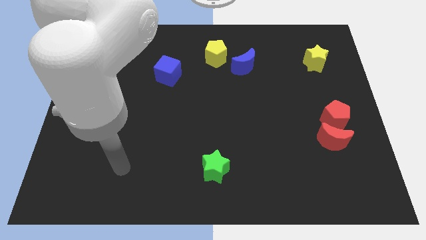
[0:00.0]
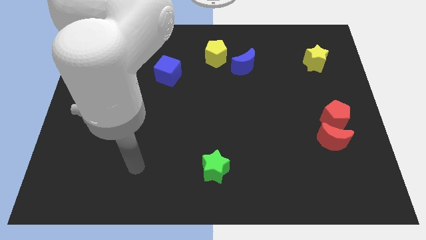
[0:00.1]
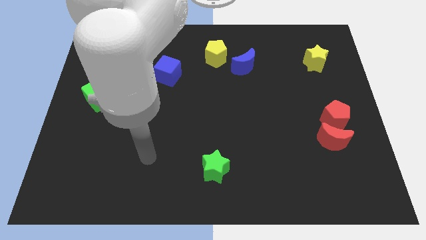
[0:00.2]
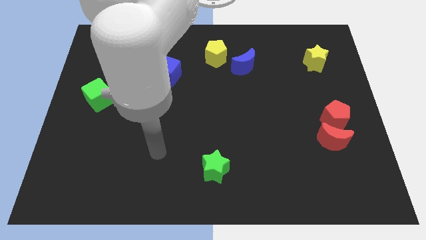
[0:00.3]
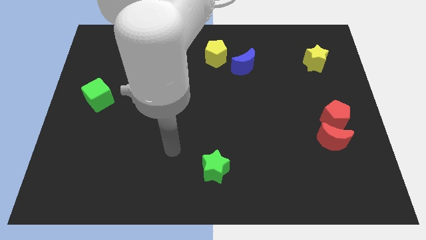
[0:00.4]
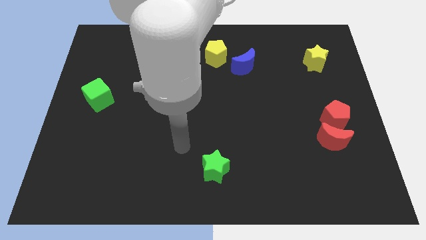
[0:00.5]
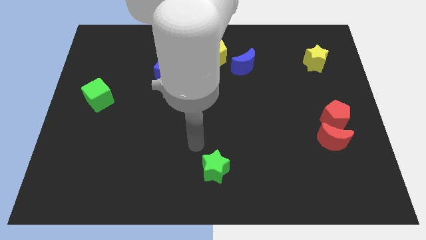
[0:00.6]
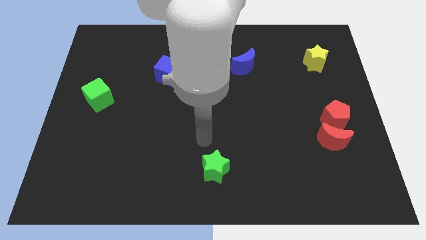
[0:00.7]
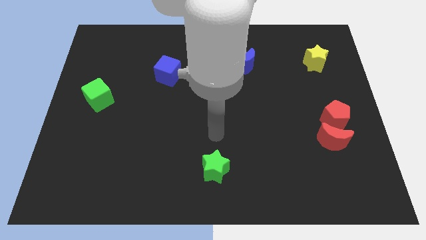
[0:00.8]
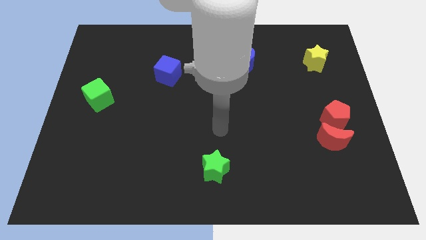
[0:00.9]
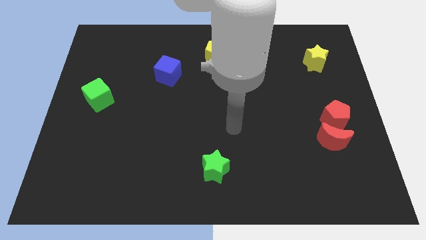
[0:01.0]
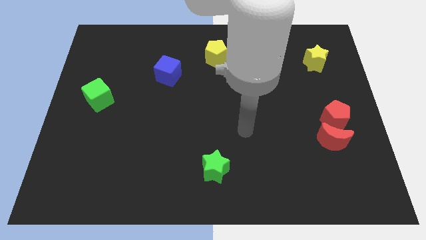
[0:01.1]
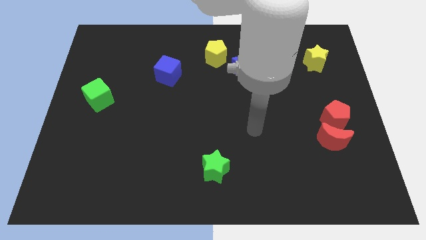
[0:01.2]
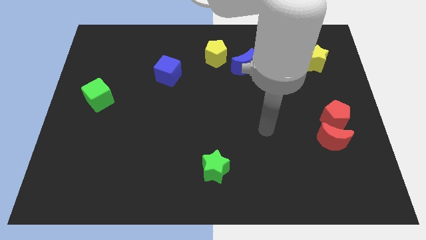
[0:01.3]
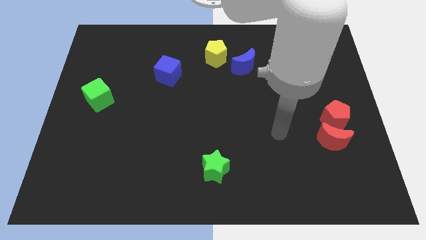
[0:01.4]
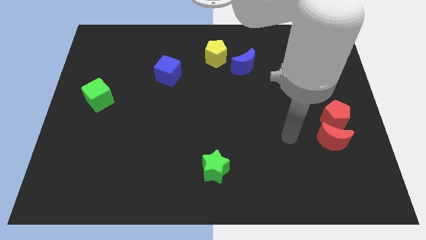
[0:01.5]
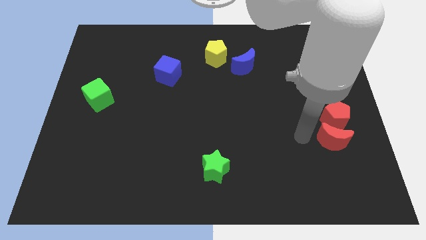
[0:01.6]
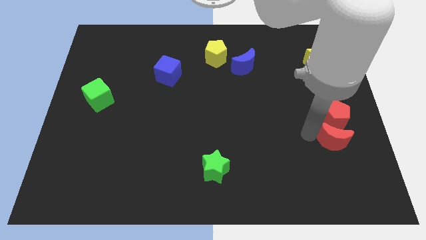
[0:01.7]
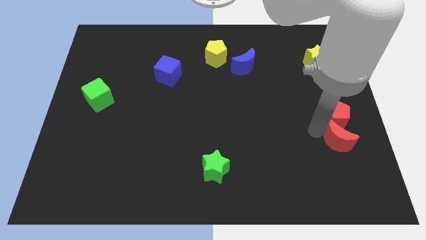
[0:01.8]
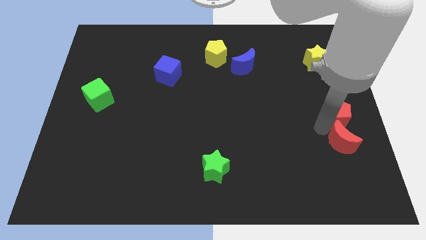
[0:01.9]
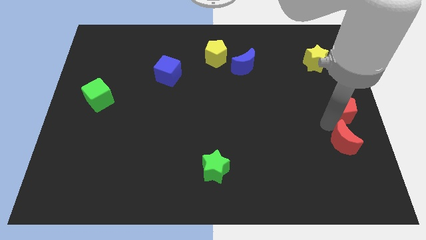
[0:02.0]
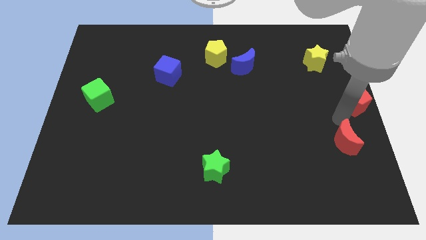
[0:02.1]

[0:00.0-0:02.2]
move the red moon away from the red pentagon

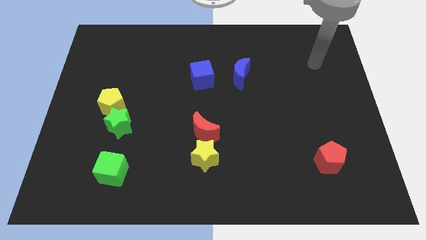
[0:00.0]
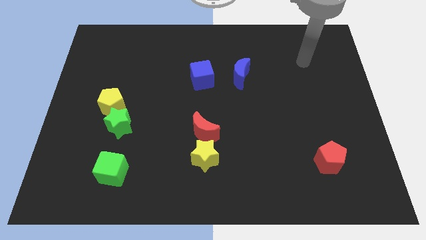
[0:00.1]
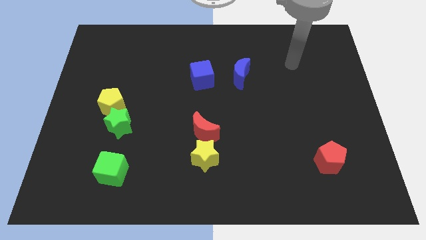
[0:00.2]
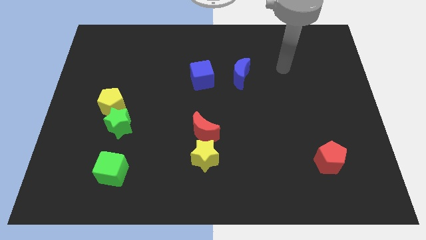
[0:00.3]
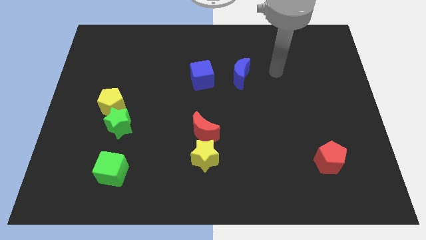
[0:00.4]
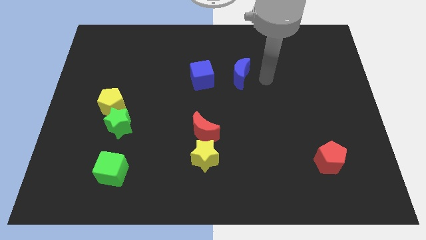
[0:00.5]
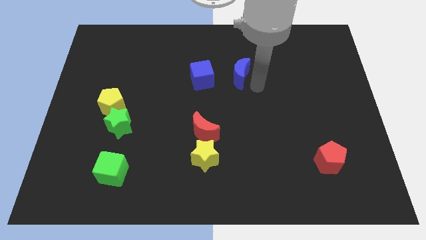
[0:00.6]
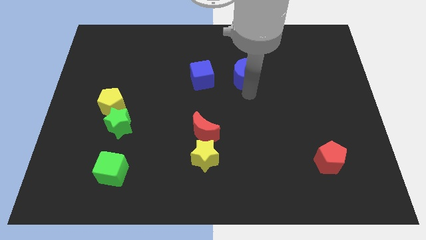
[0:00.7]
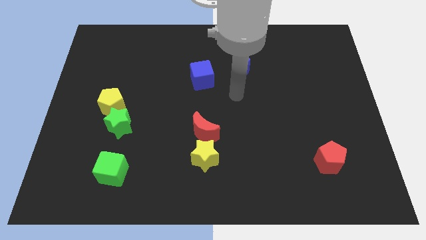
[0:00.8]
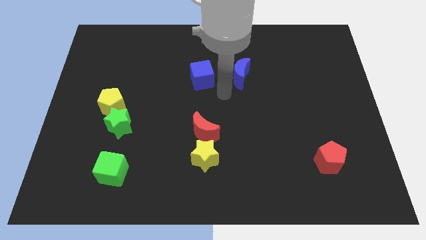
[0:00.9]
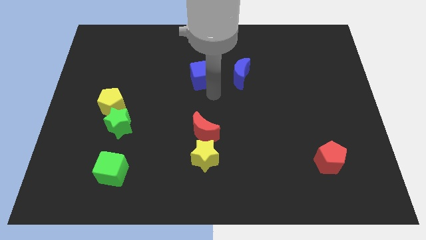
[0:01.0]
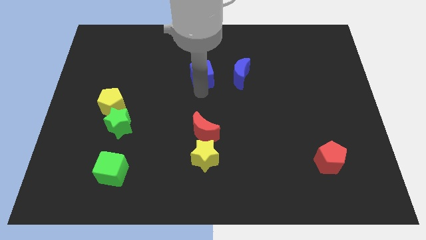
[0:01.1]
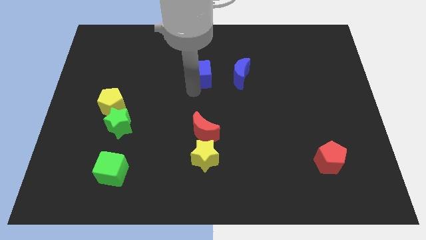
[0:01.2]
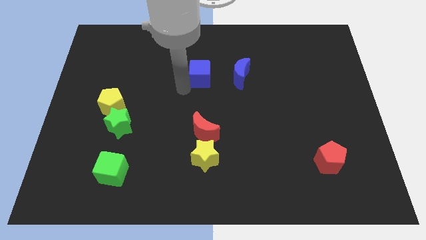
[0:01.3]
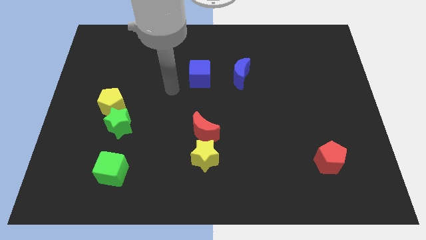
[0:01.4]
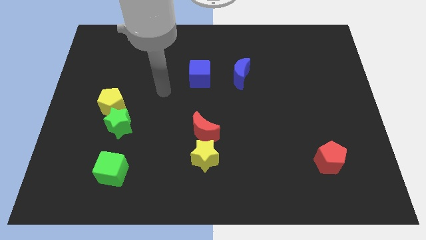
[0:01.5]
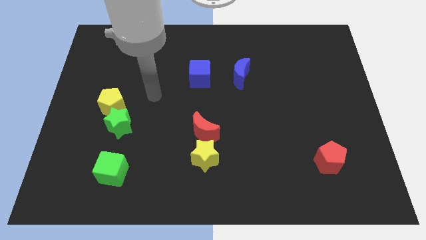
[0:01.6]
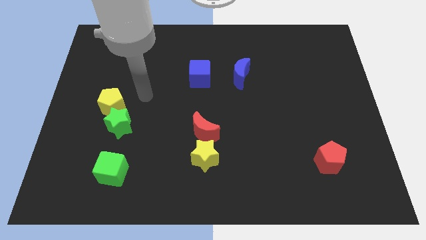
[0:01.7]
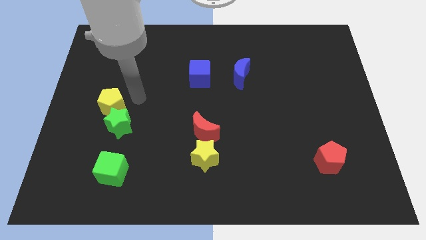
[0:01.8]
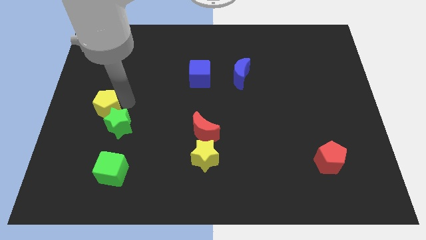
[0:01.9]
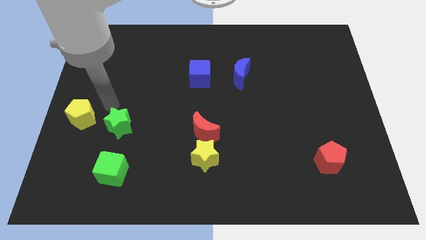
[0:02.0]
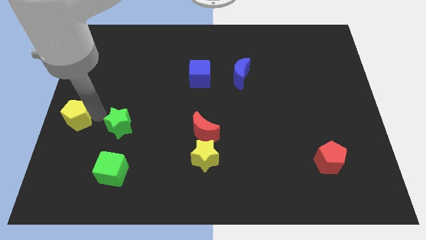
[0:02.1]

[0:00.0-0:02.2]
separate the green star from the yellow pentagon

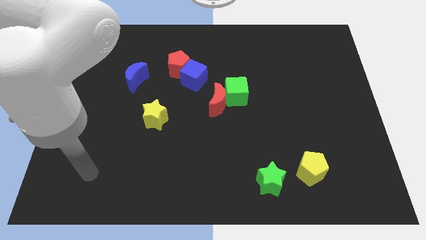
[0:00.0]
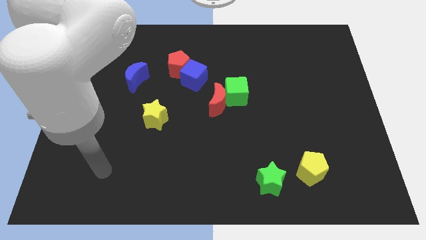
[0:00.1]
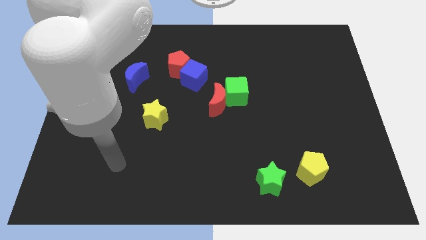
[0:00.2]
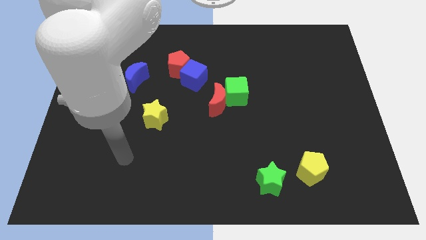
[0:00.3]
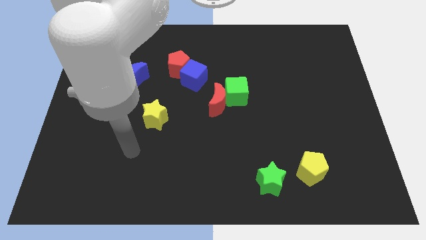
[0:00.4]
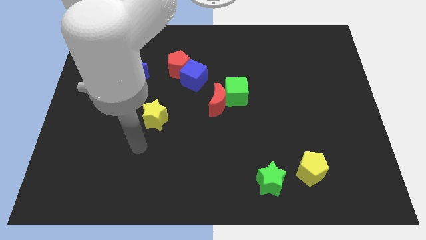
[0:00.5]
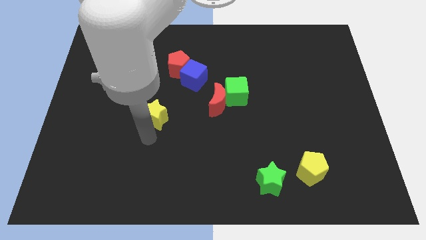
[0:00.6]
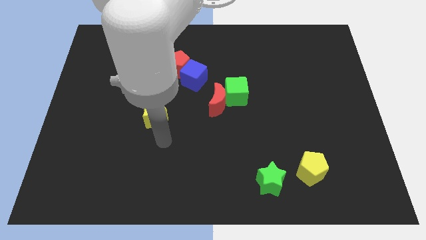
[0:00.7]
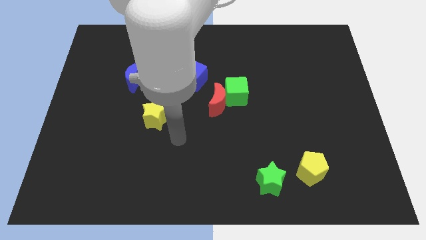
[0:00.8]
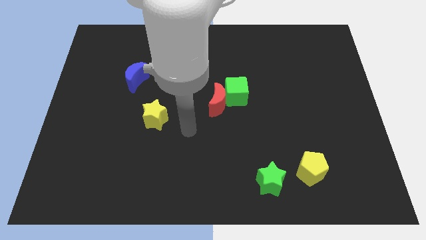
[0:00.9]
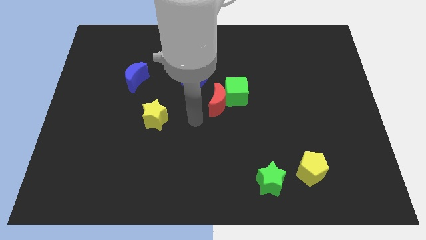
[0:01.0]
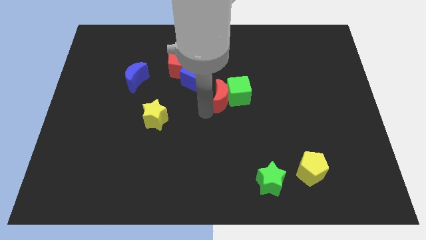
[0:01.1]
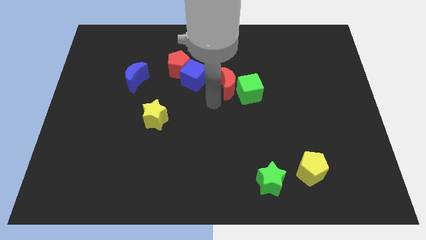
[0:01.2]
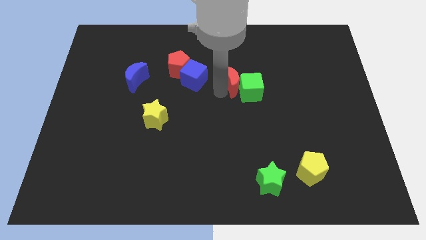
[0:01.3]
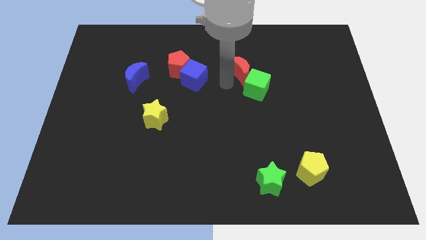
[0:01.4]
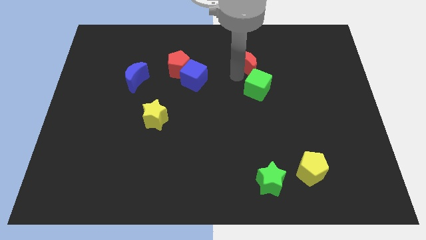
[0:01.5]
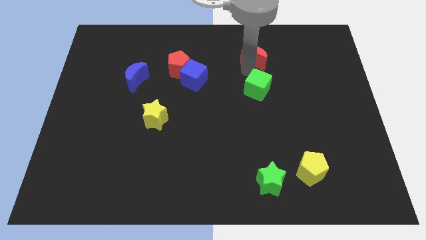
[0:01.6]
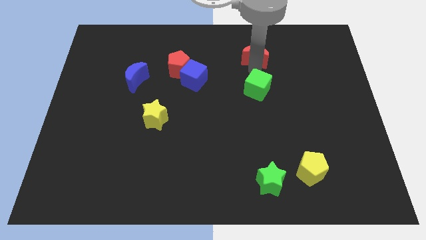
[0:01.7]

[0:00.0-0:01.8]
pull the green cube apart from the red moon

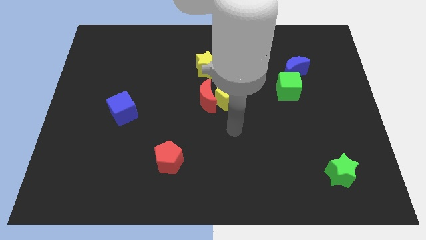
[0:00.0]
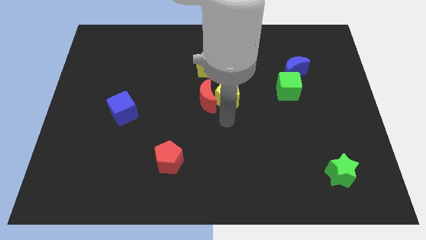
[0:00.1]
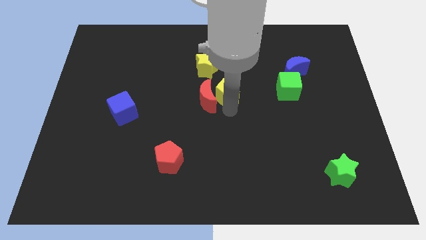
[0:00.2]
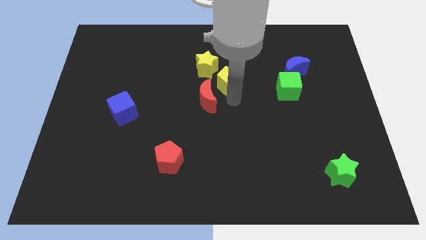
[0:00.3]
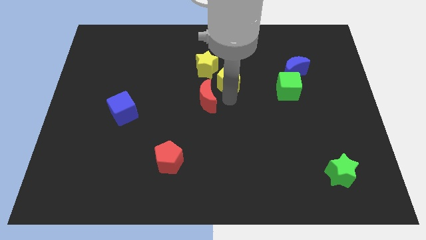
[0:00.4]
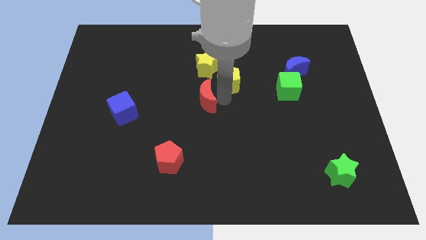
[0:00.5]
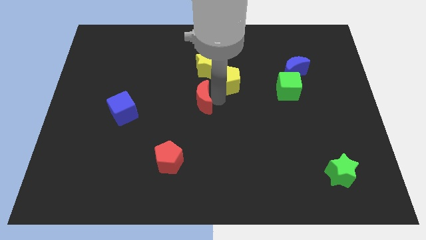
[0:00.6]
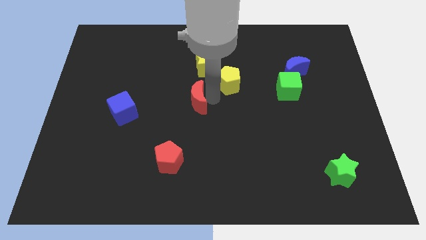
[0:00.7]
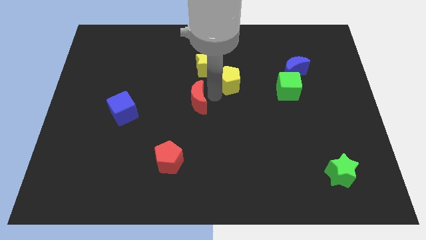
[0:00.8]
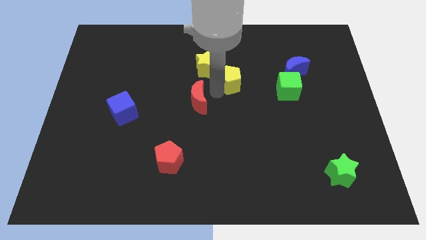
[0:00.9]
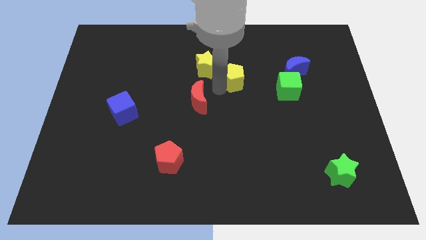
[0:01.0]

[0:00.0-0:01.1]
move the red moon away from the yellow pentagon

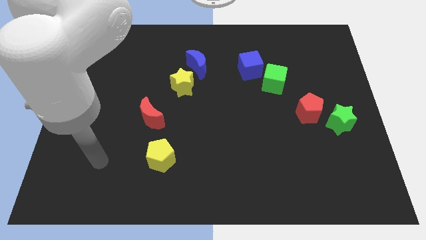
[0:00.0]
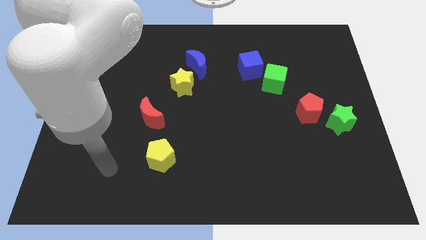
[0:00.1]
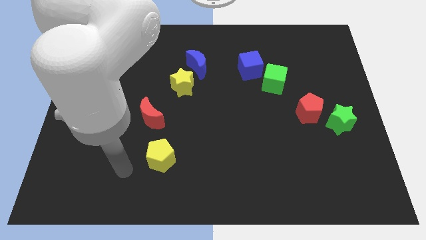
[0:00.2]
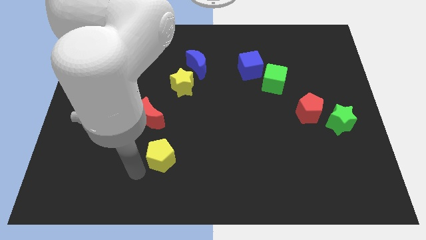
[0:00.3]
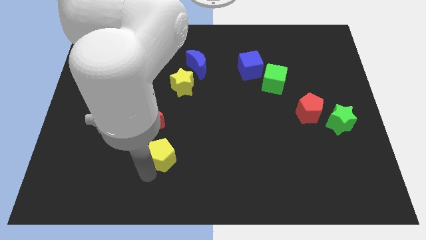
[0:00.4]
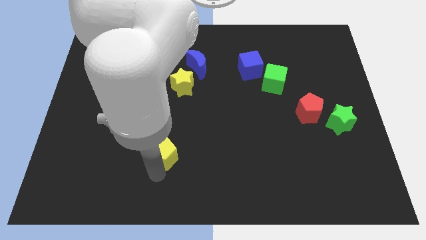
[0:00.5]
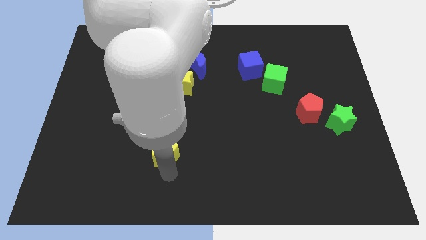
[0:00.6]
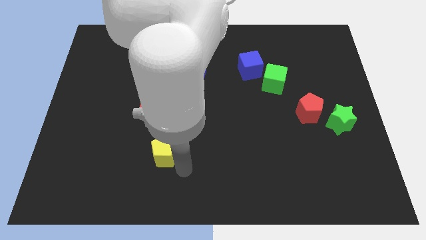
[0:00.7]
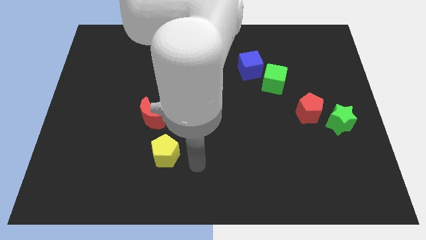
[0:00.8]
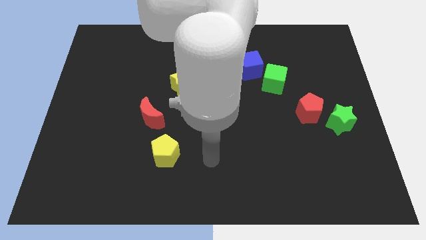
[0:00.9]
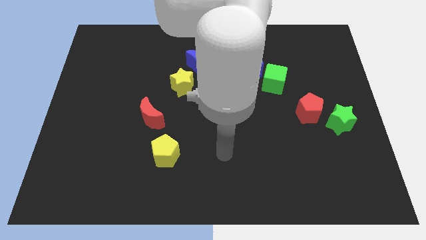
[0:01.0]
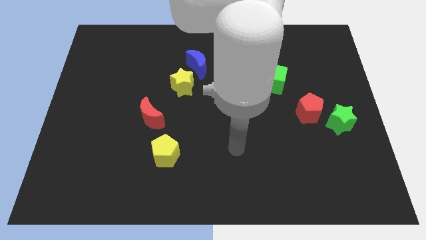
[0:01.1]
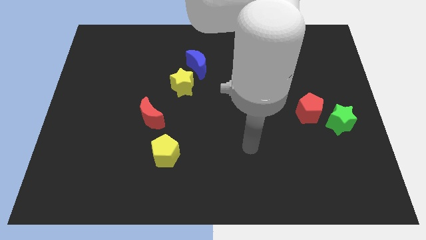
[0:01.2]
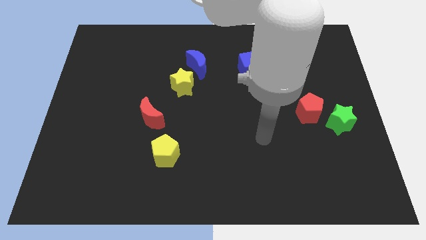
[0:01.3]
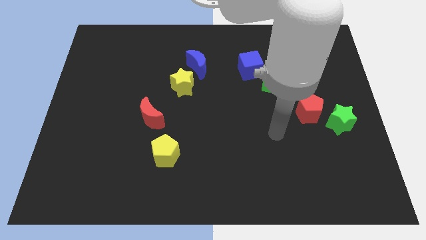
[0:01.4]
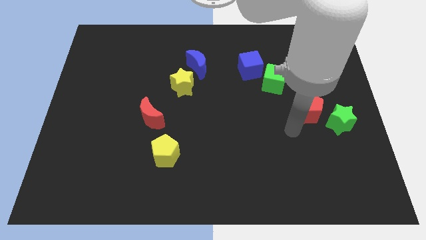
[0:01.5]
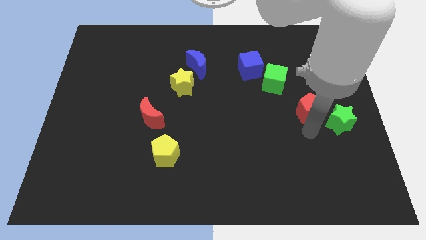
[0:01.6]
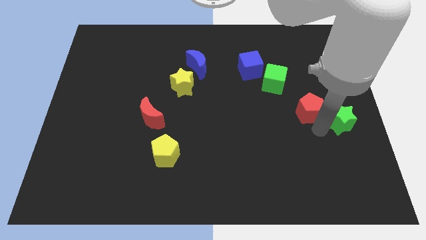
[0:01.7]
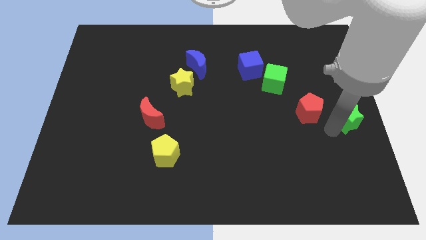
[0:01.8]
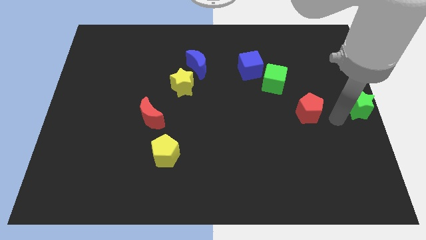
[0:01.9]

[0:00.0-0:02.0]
pull the red pentagon apart from the green star
